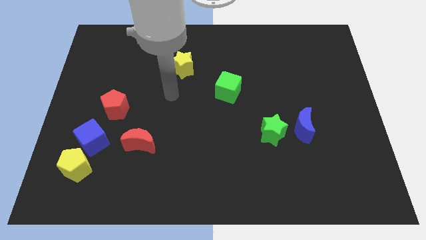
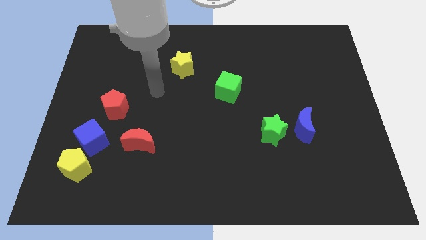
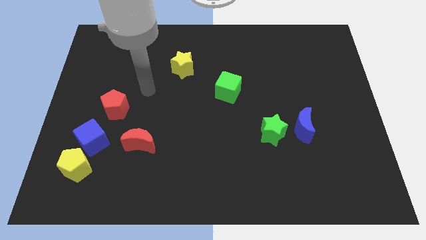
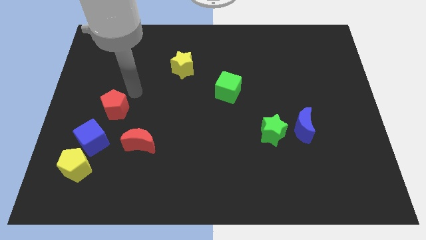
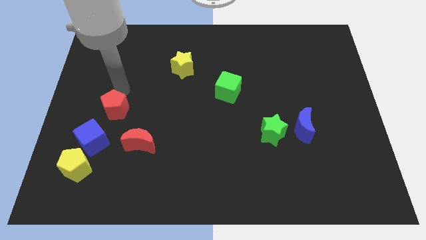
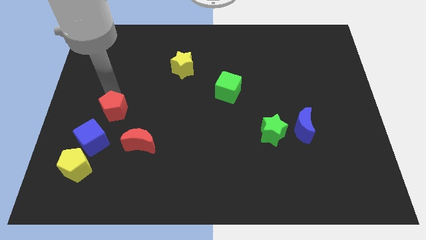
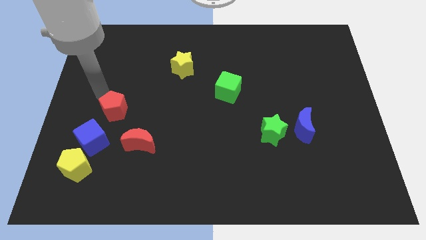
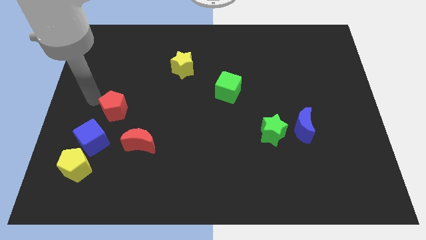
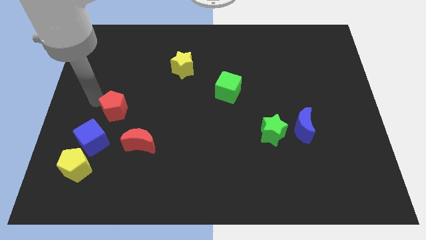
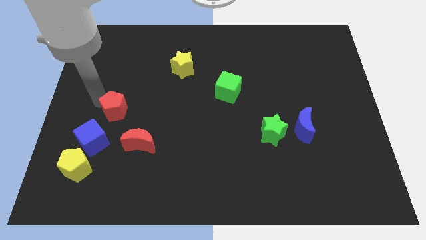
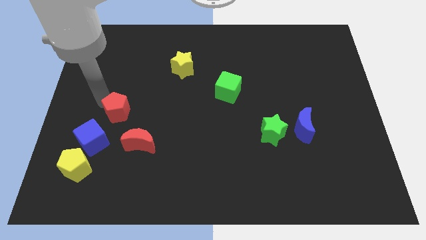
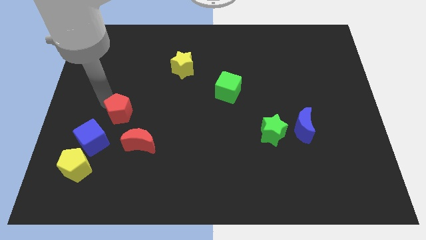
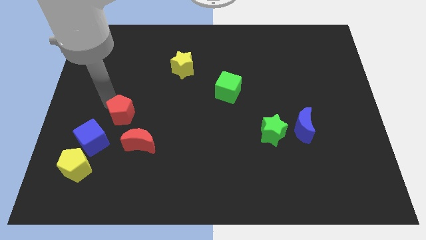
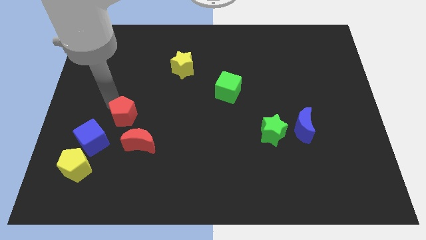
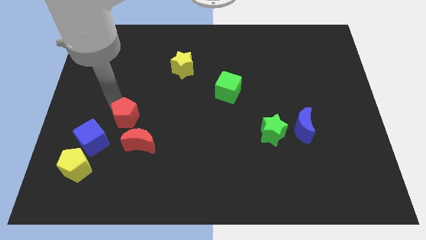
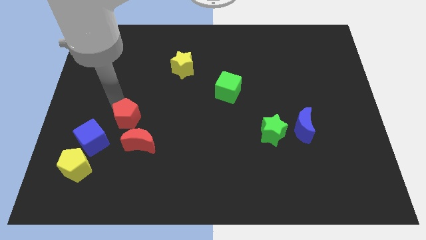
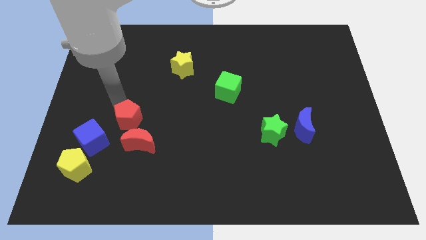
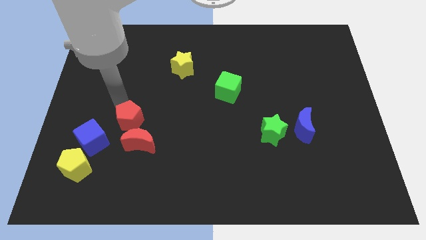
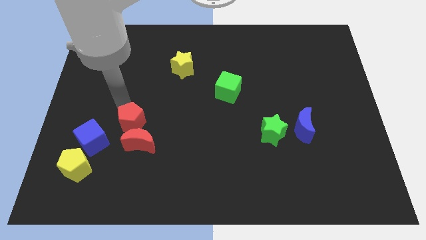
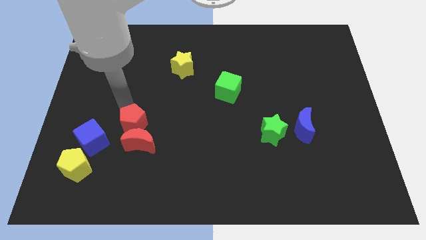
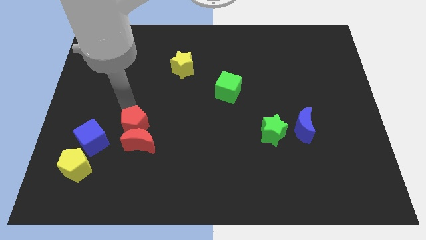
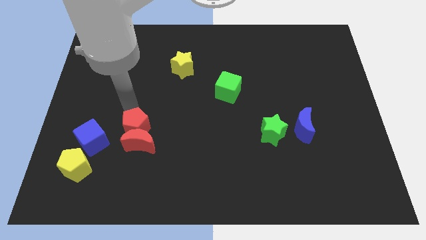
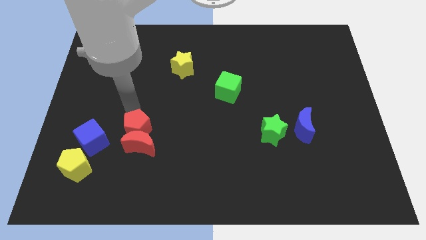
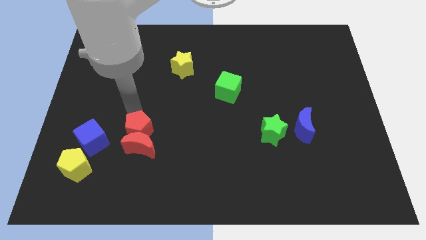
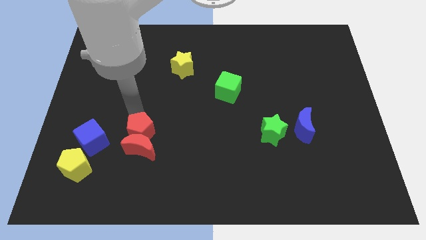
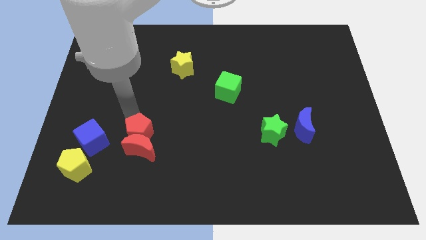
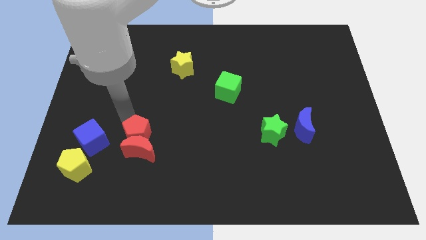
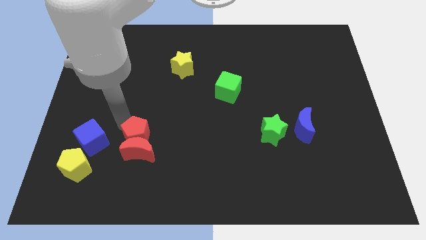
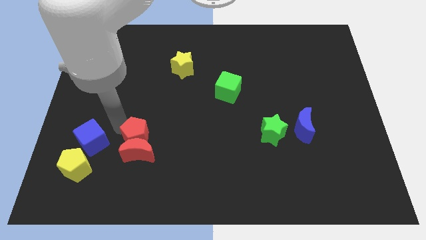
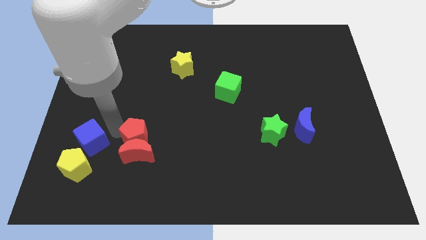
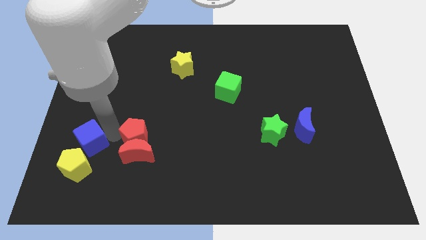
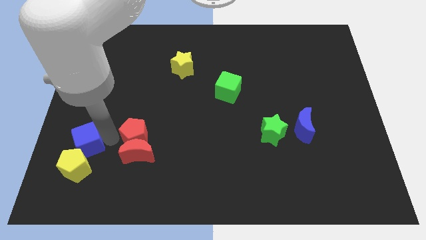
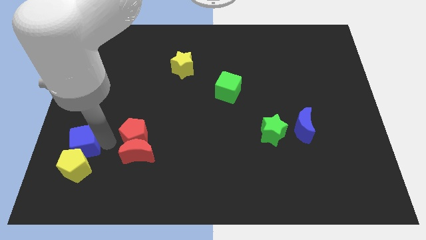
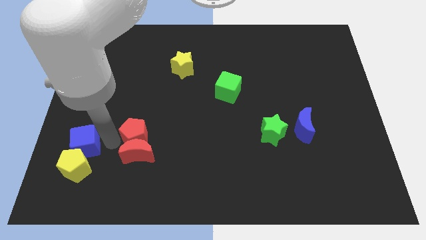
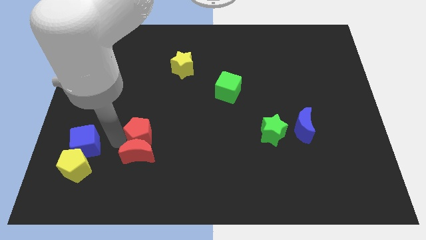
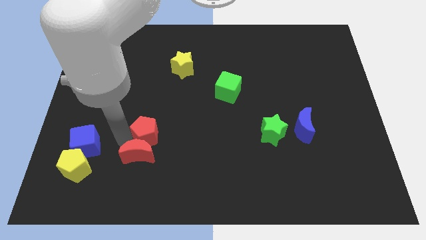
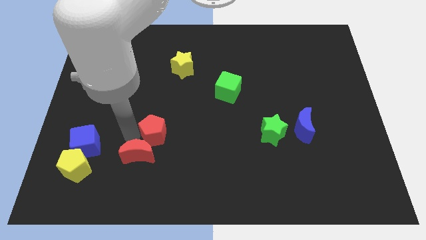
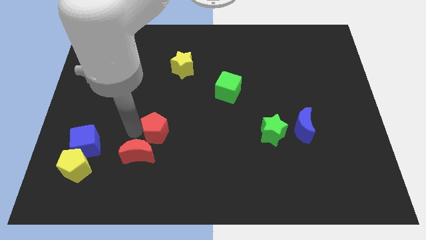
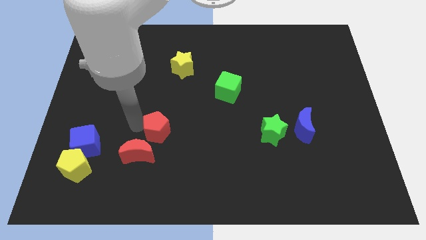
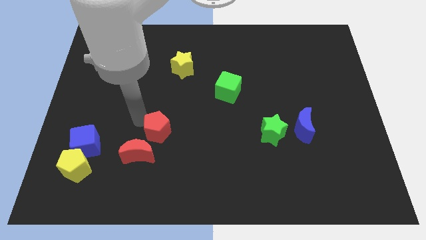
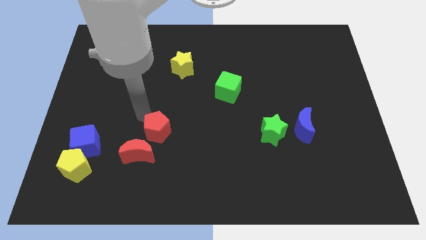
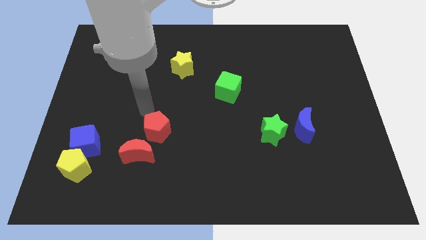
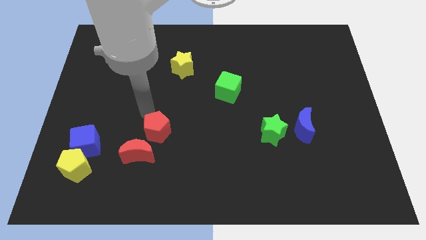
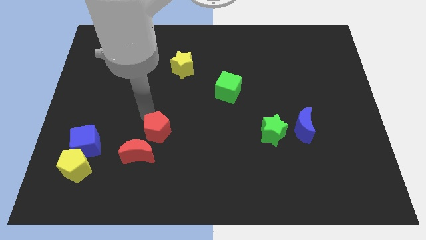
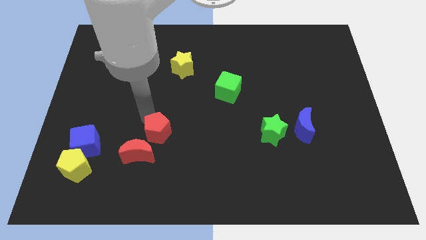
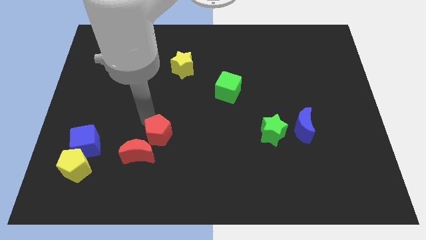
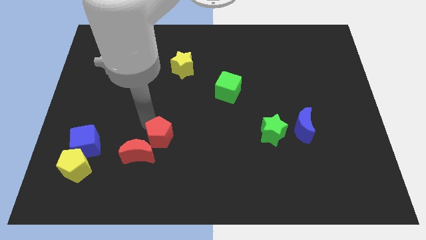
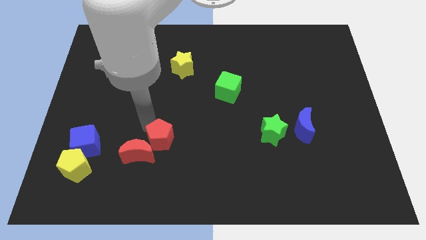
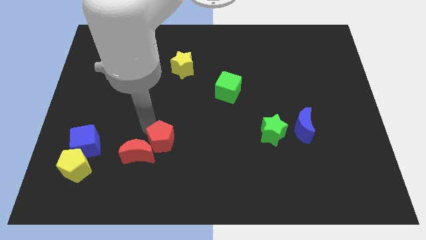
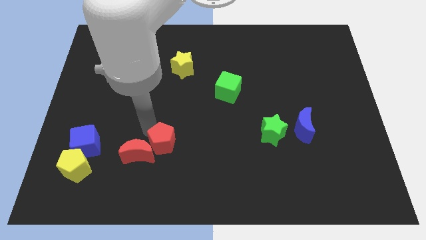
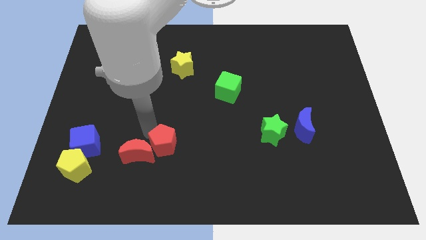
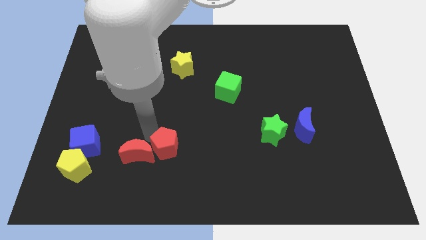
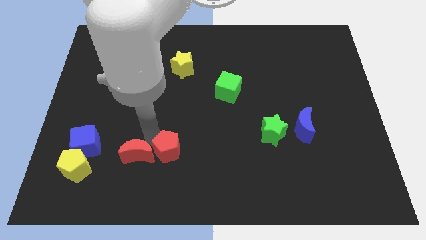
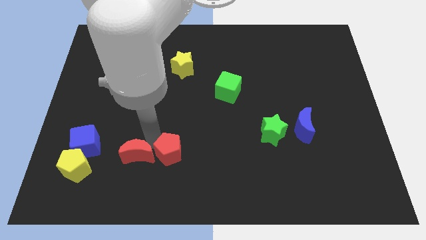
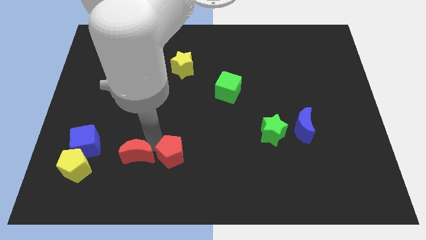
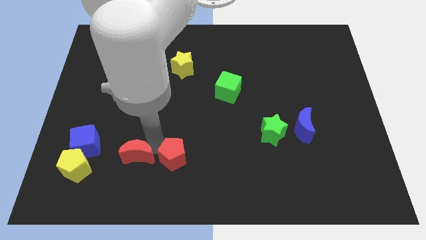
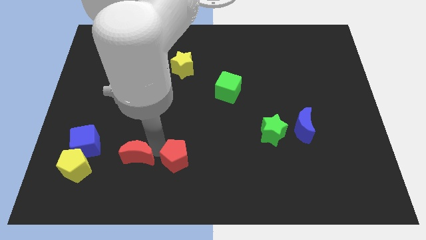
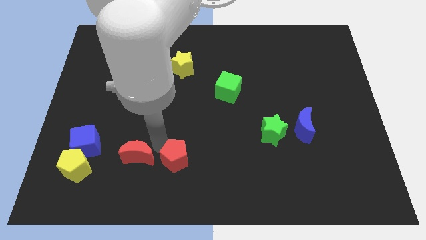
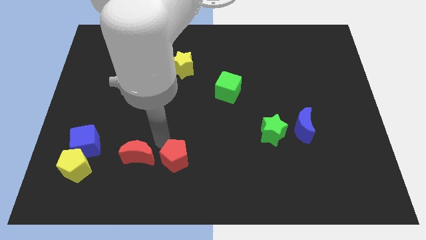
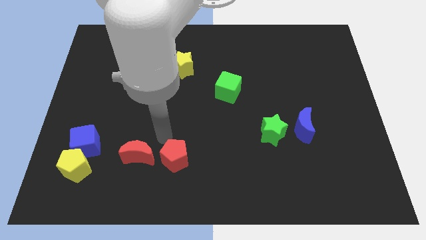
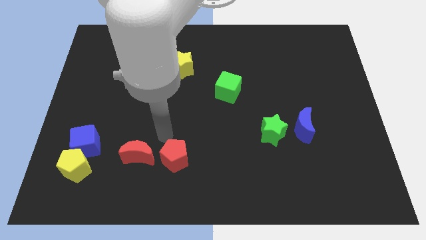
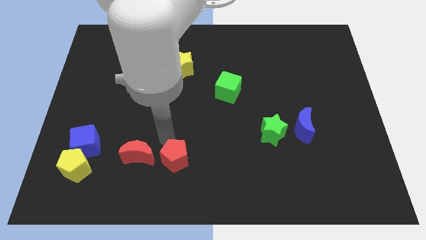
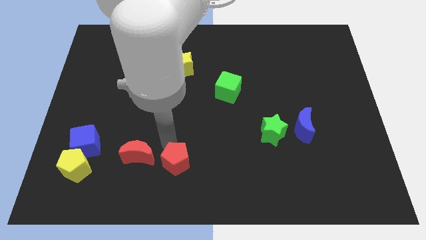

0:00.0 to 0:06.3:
push the red pentagon to the bottom
